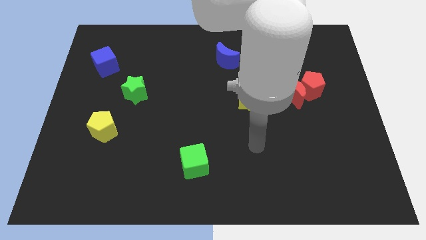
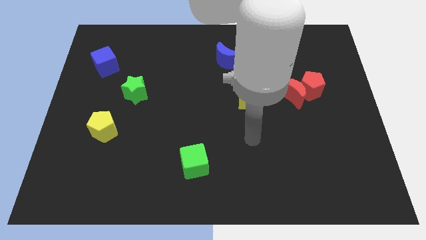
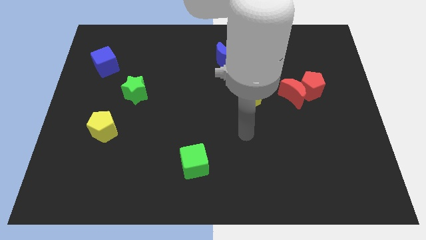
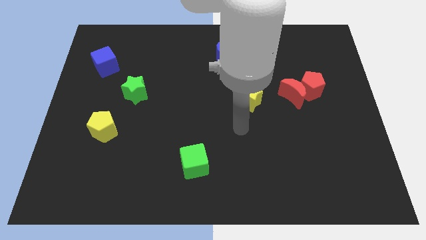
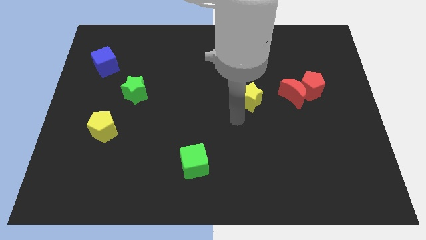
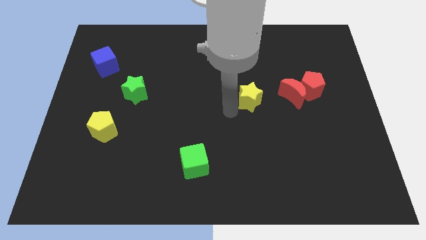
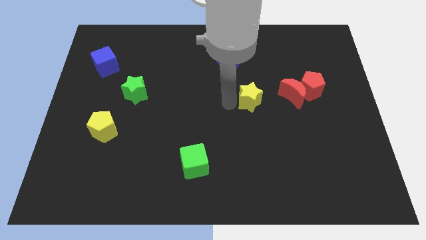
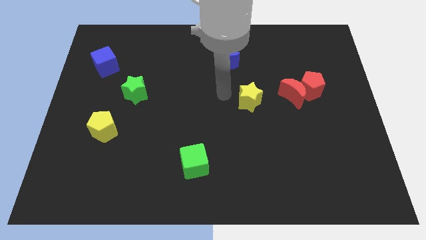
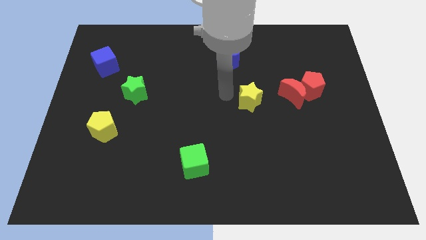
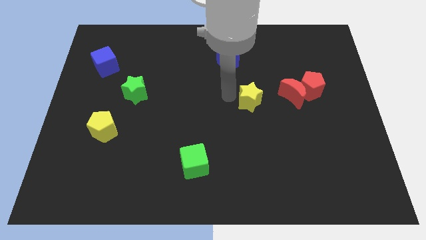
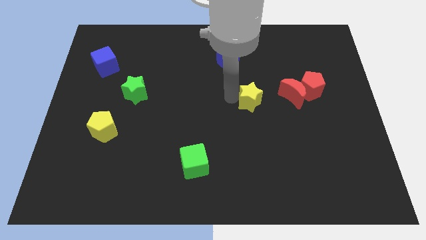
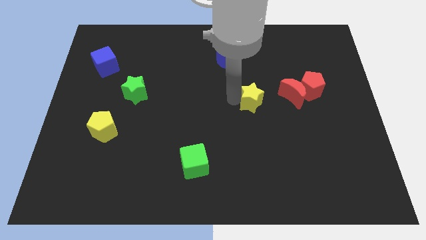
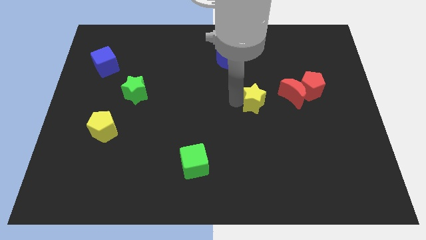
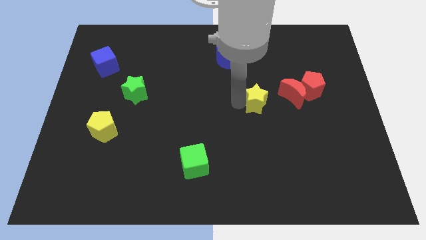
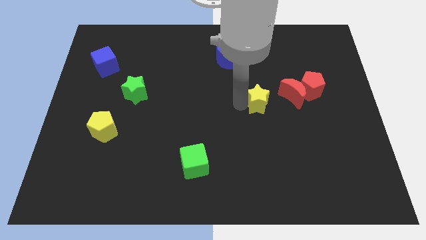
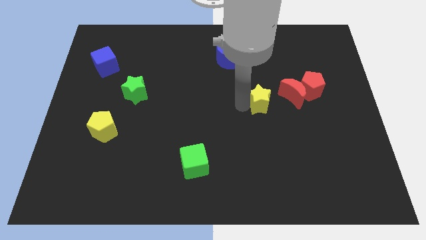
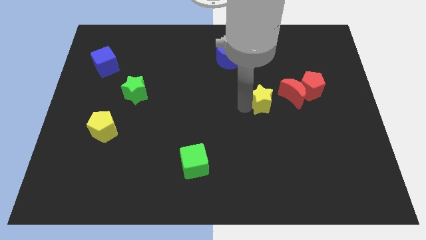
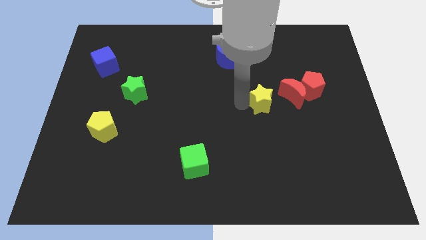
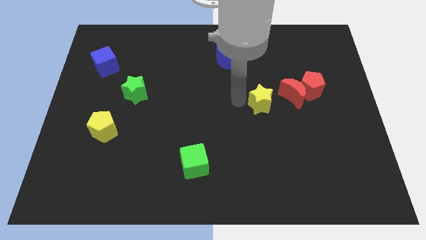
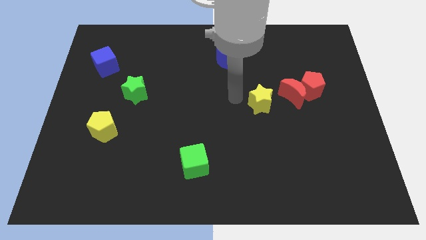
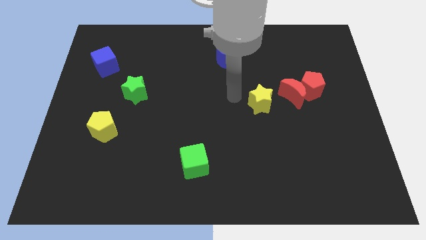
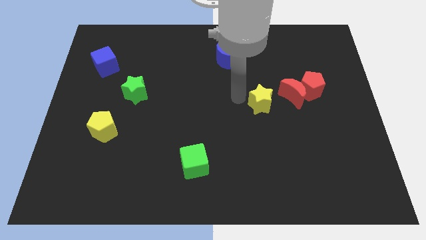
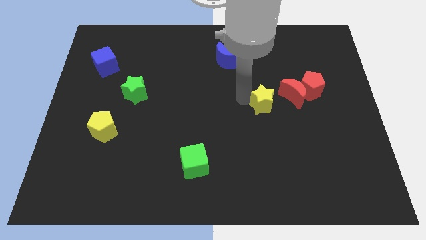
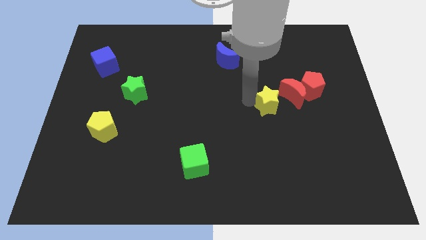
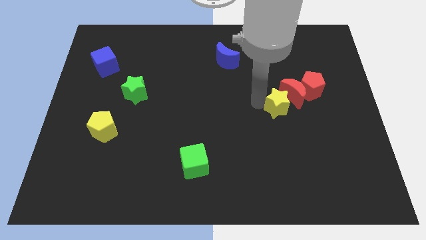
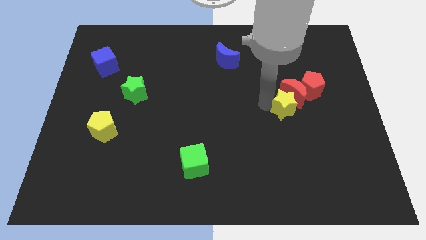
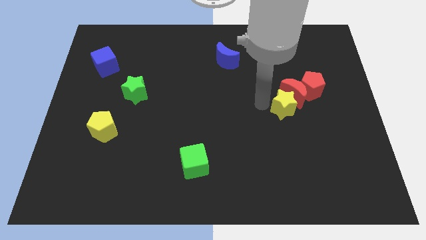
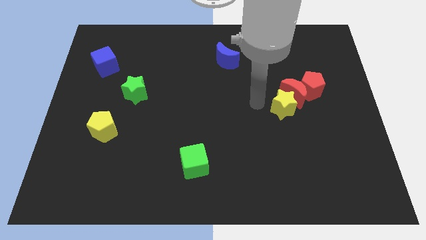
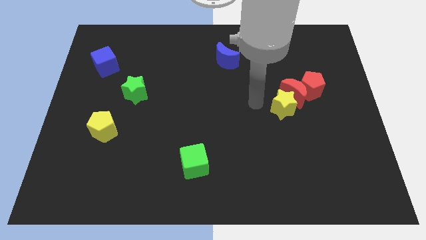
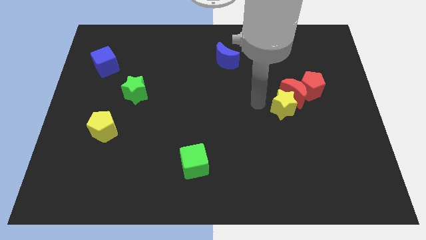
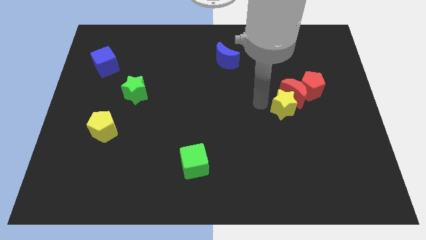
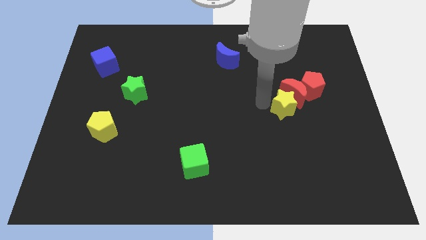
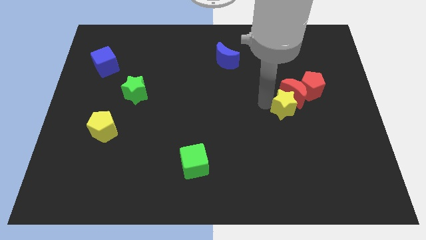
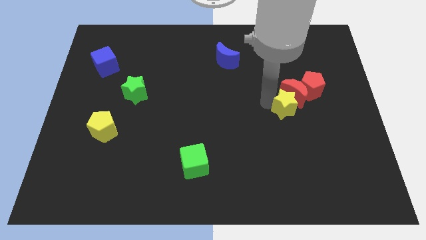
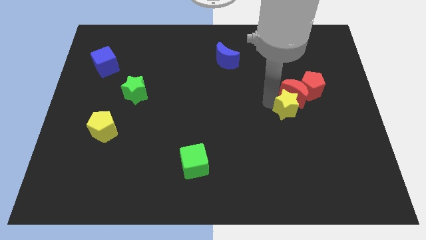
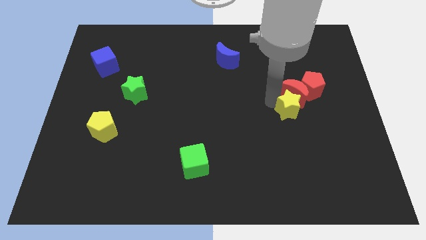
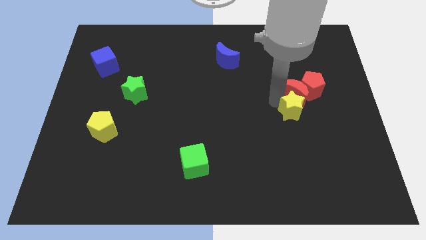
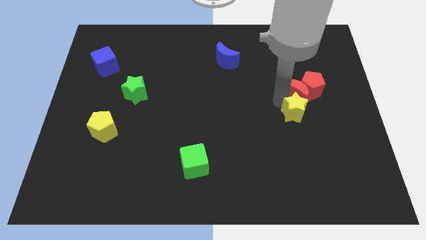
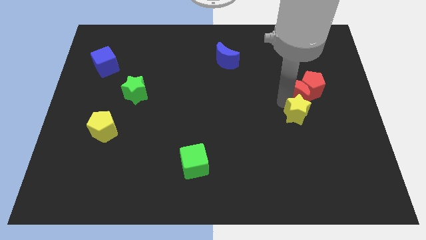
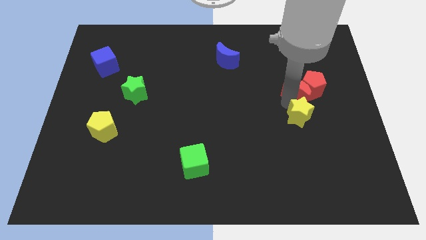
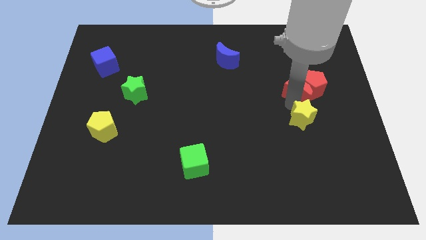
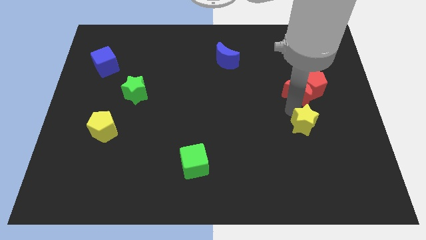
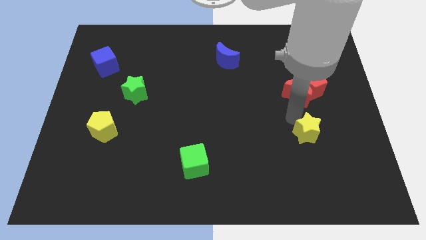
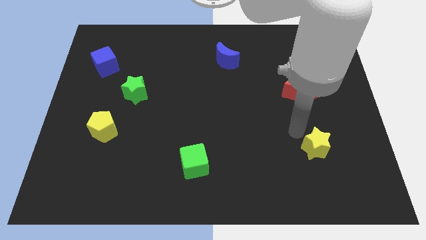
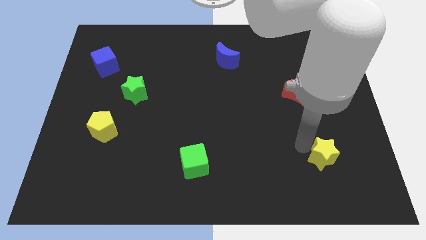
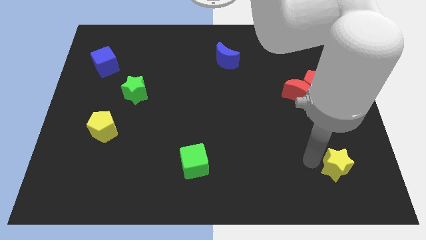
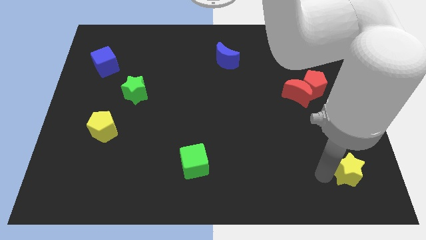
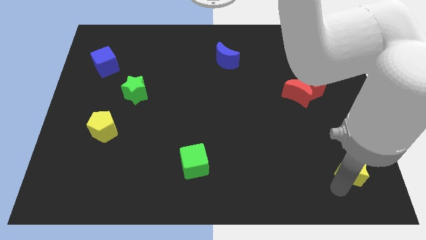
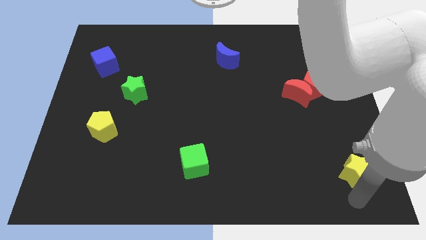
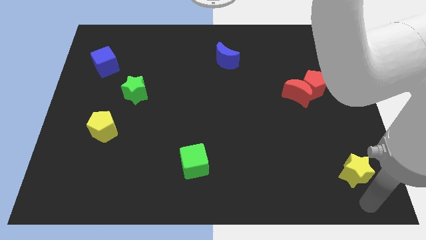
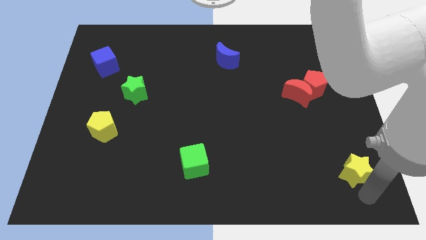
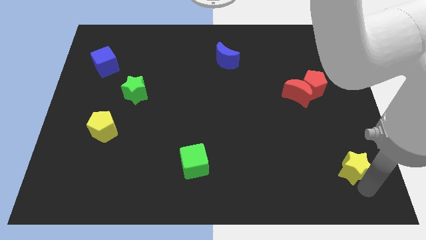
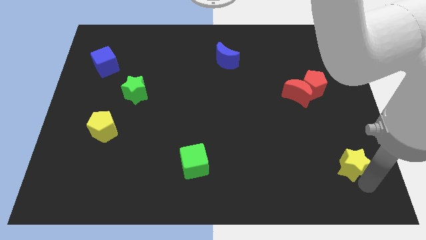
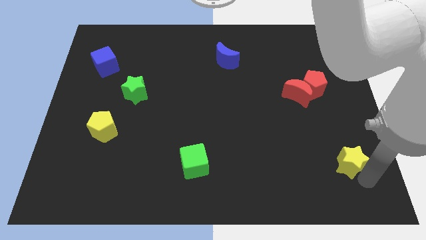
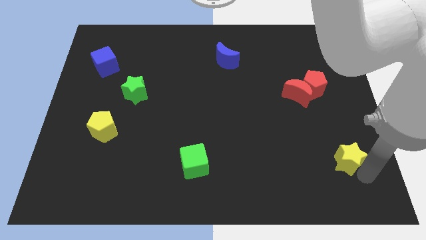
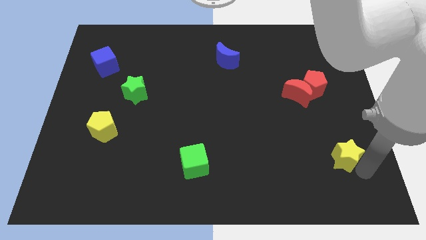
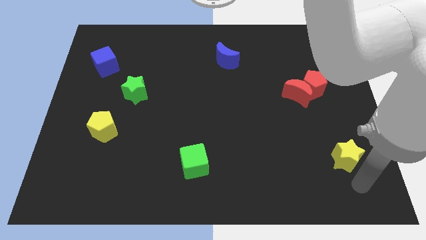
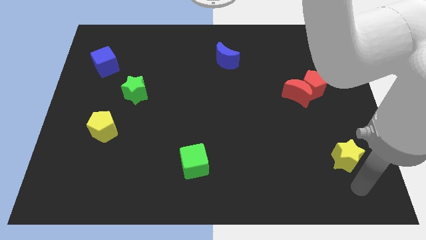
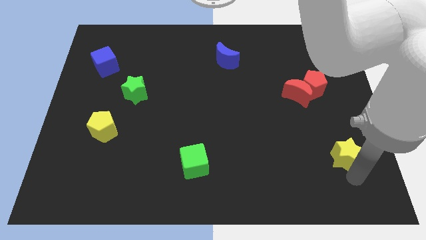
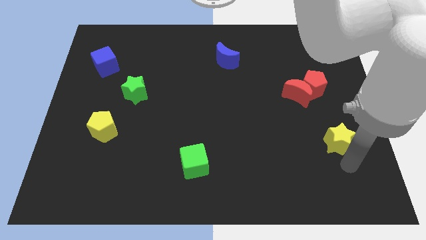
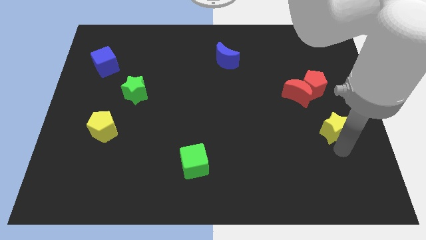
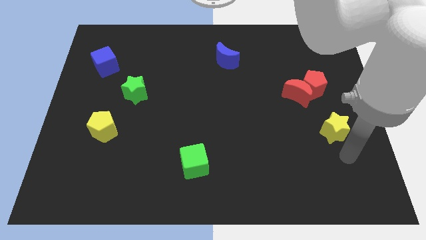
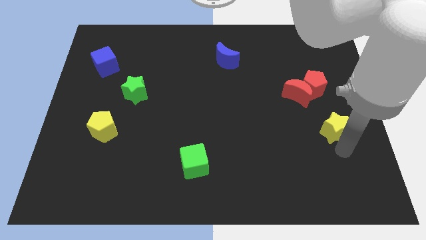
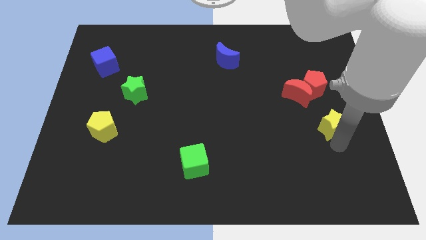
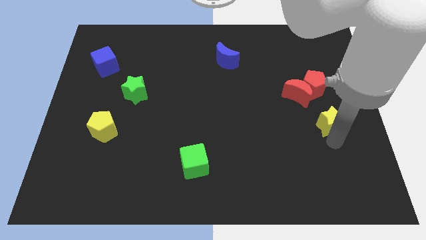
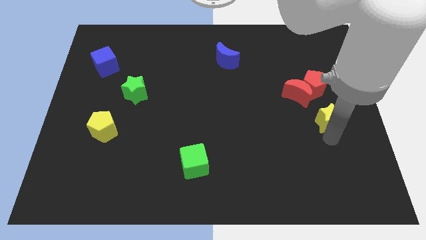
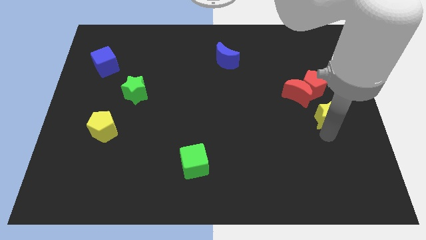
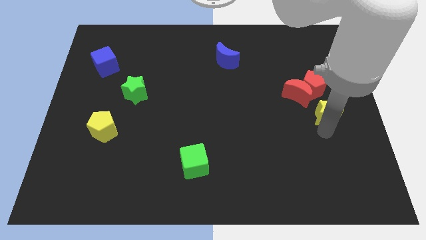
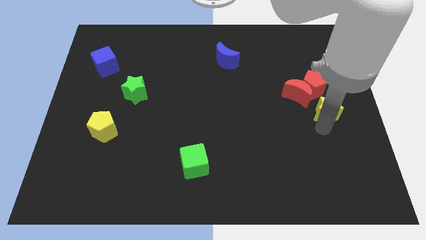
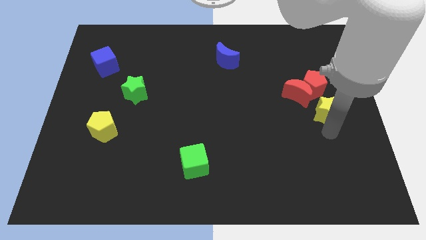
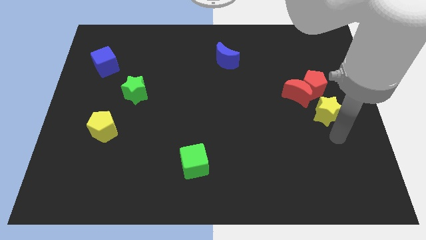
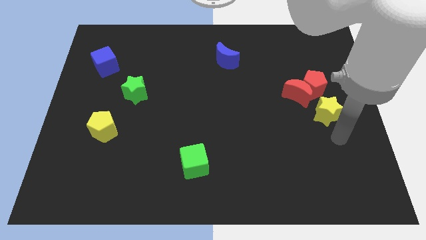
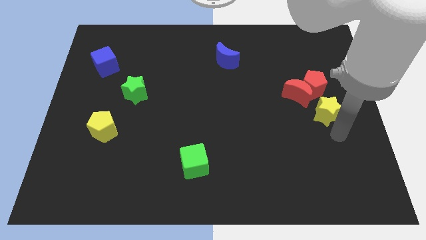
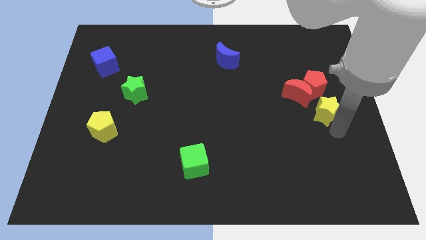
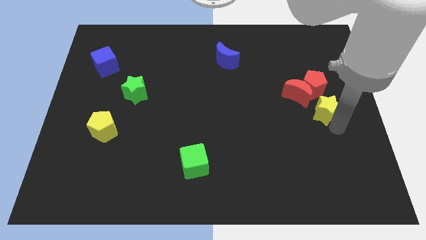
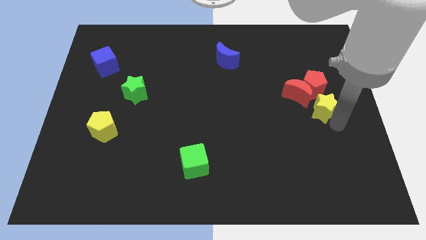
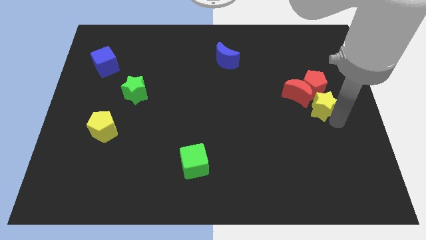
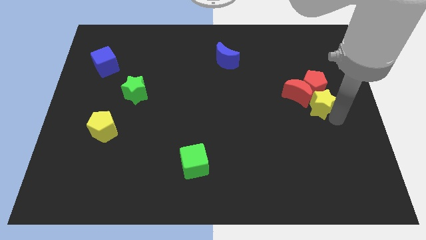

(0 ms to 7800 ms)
push the yellow star to the red pentagon

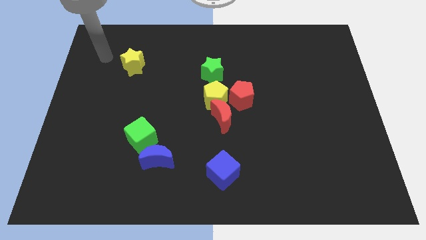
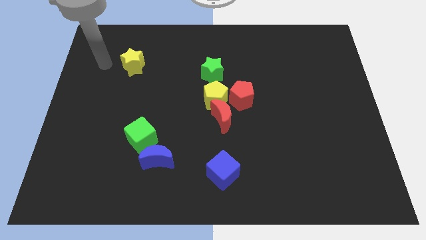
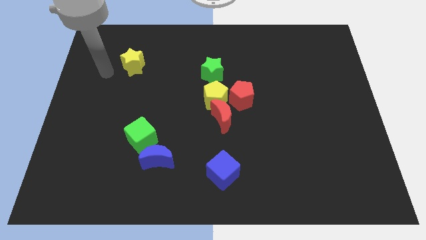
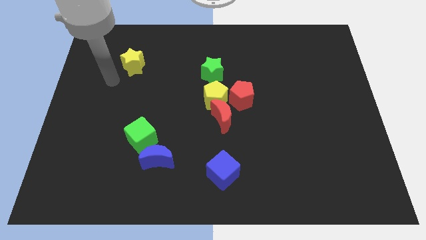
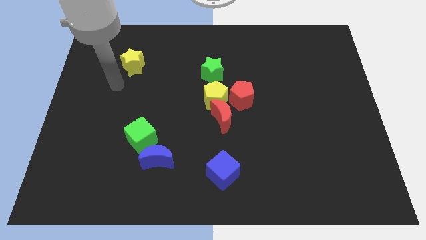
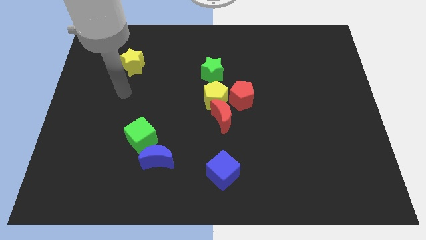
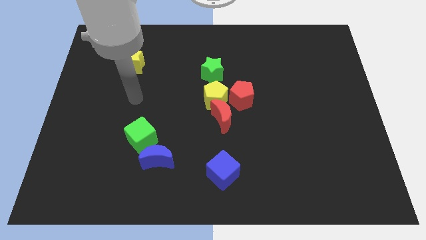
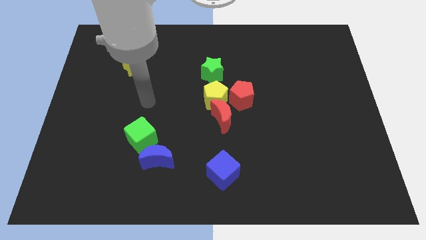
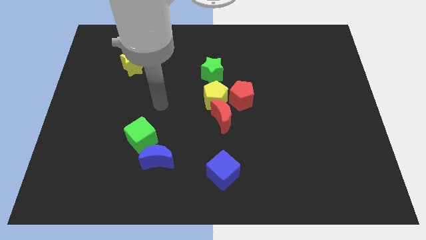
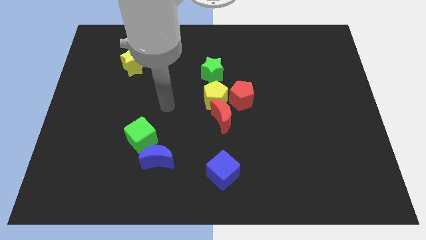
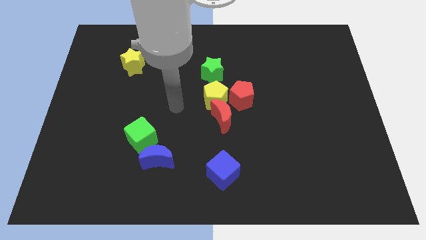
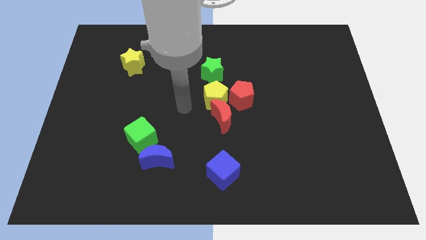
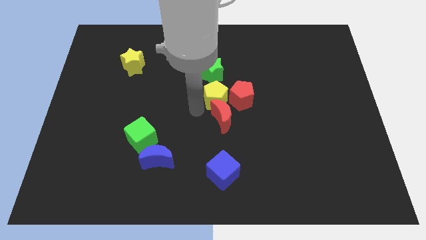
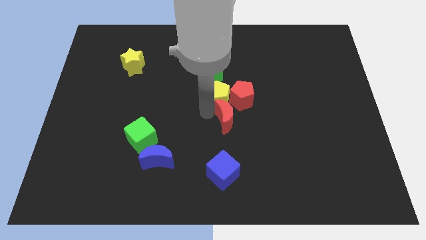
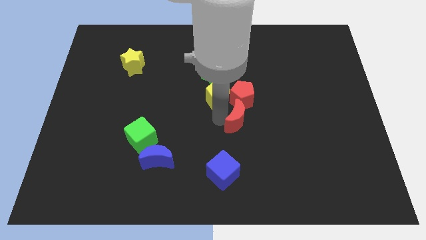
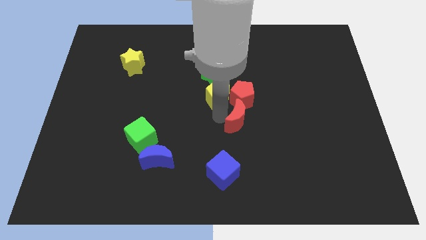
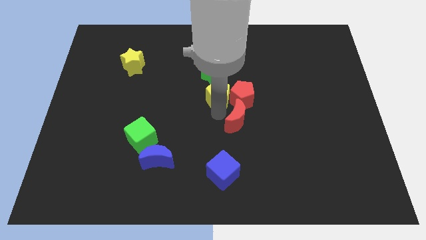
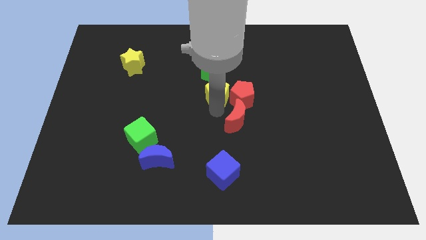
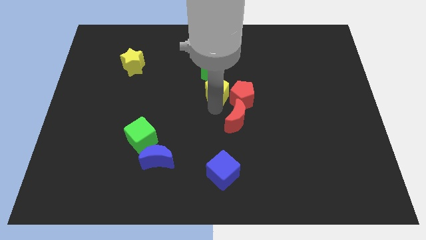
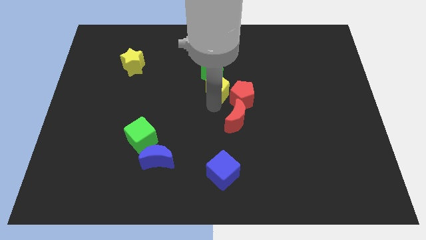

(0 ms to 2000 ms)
push the yellow pentagon towards the green star
